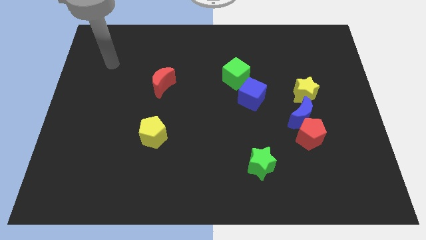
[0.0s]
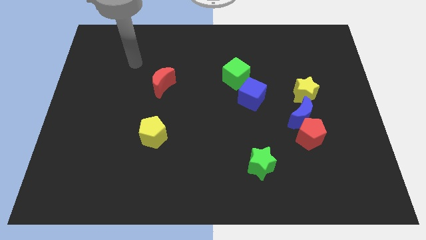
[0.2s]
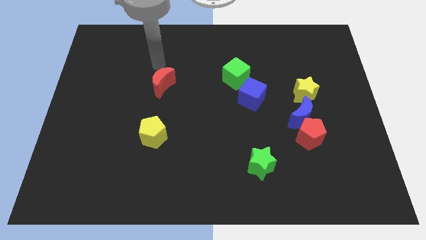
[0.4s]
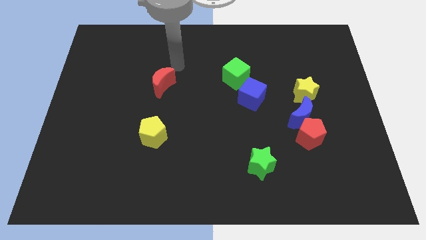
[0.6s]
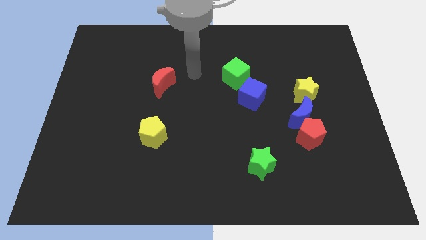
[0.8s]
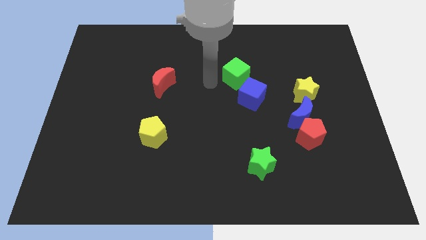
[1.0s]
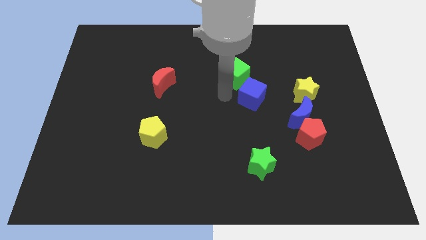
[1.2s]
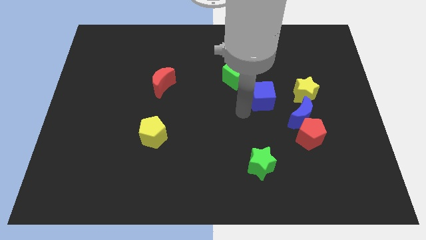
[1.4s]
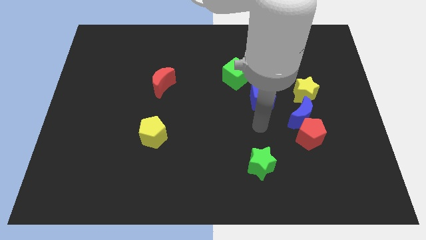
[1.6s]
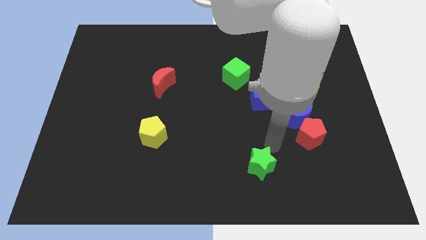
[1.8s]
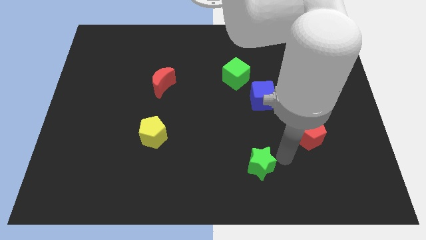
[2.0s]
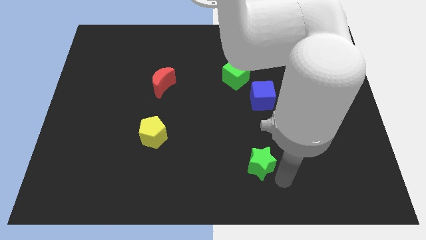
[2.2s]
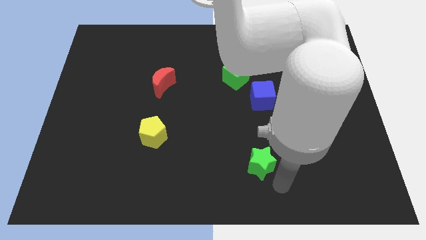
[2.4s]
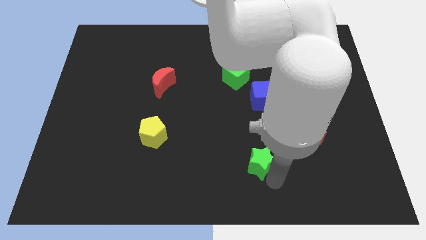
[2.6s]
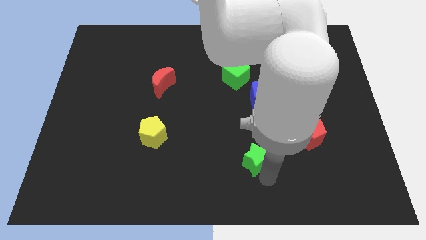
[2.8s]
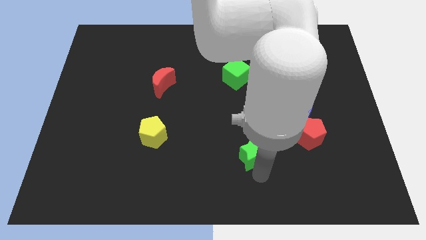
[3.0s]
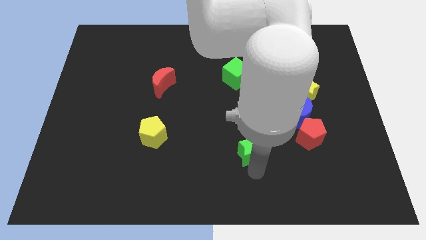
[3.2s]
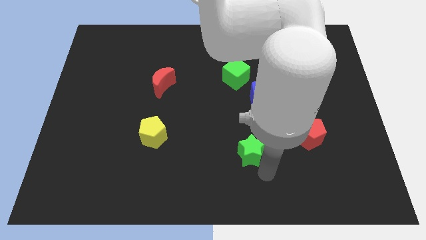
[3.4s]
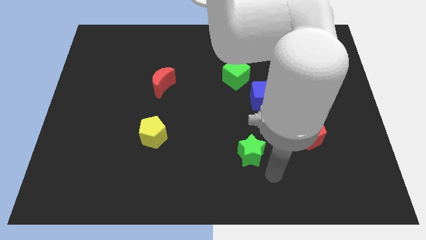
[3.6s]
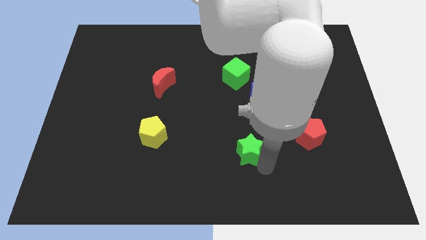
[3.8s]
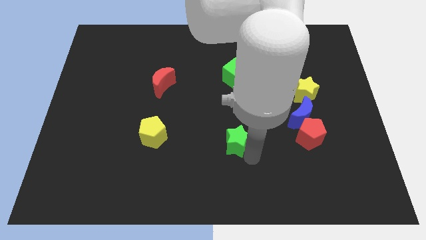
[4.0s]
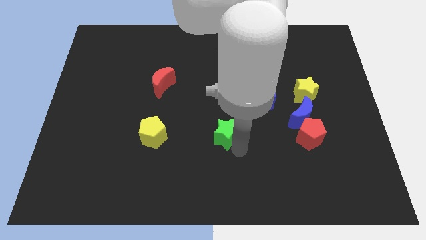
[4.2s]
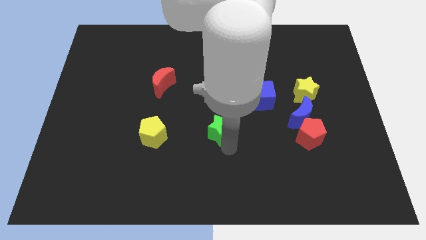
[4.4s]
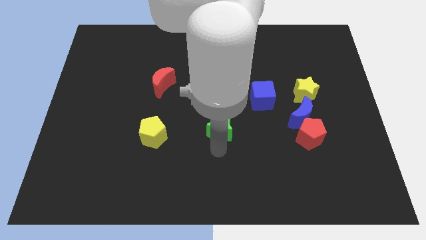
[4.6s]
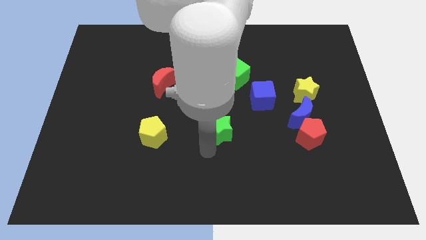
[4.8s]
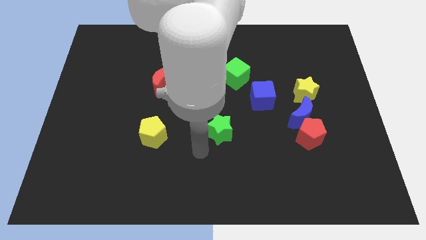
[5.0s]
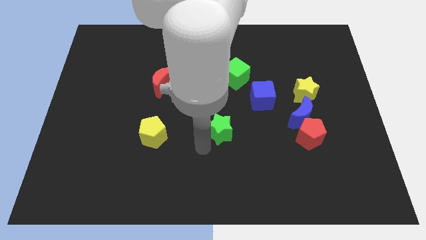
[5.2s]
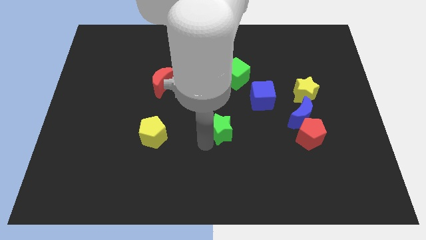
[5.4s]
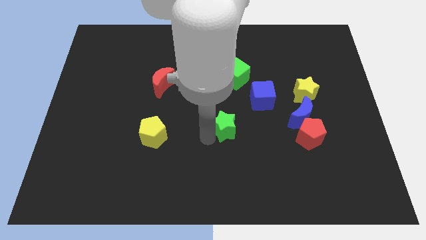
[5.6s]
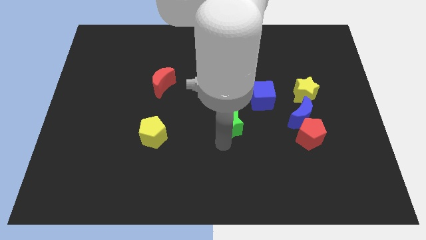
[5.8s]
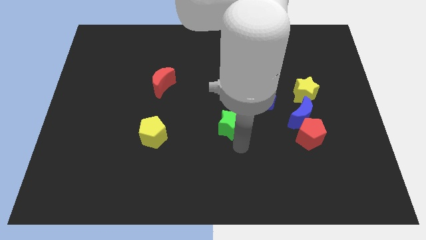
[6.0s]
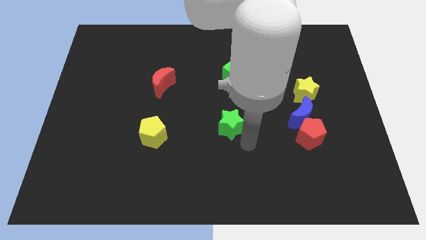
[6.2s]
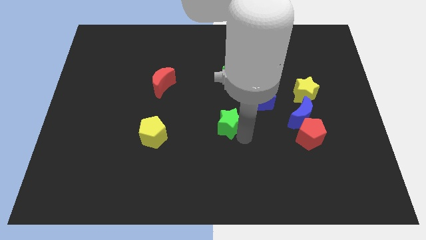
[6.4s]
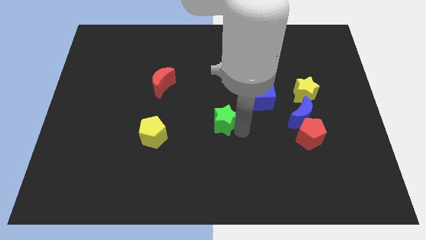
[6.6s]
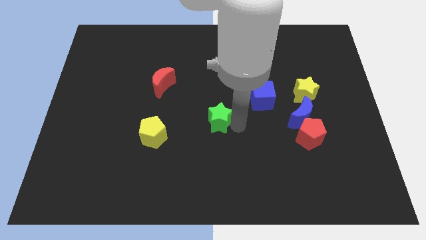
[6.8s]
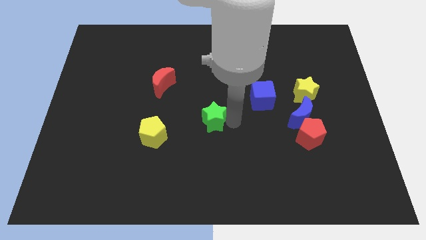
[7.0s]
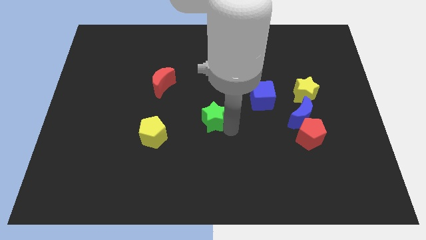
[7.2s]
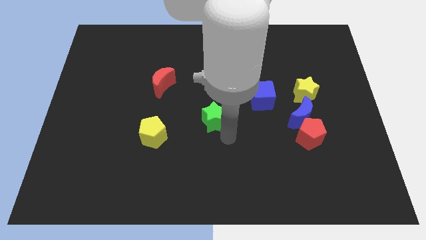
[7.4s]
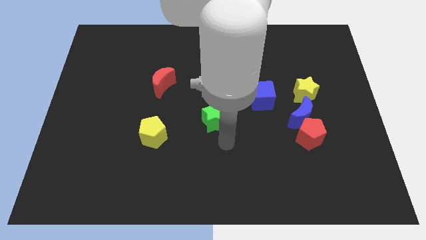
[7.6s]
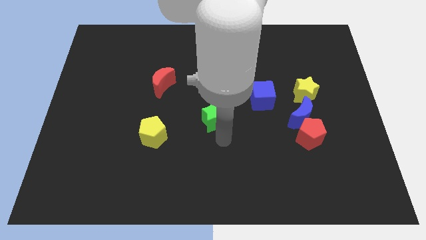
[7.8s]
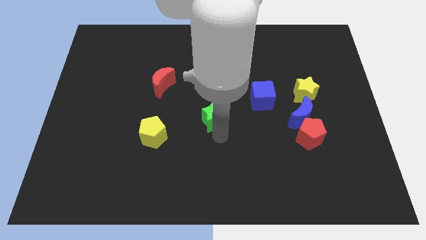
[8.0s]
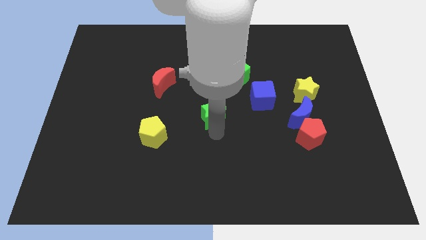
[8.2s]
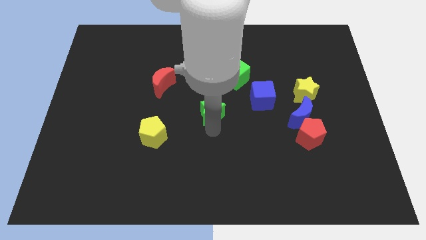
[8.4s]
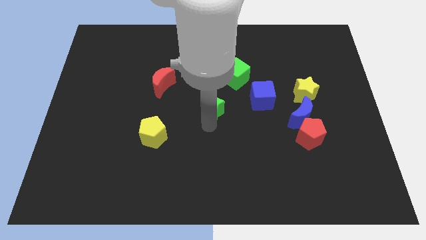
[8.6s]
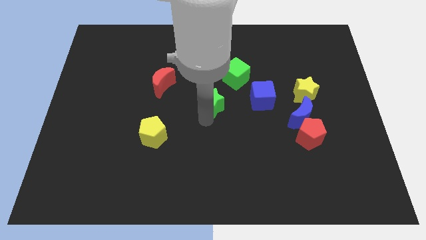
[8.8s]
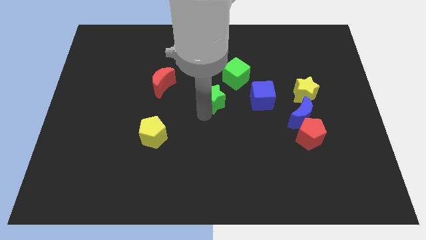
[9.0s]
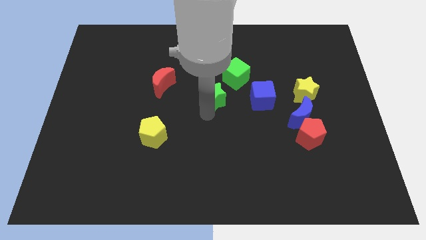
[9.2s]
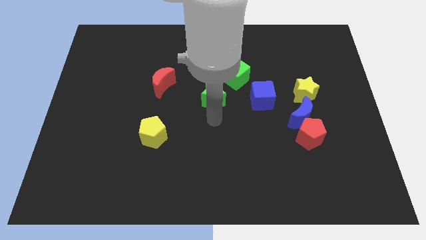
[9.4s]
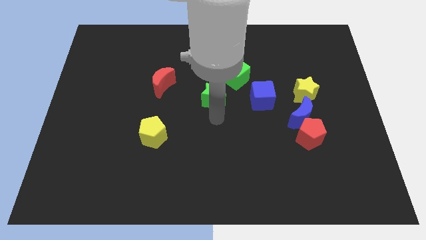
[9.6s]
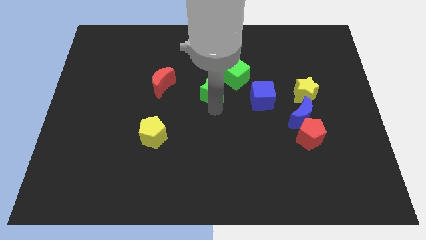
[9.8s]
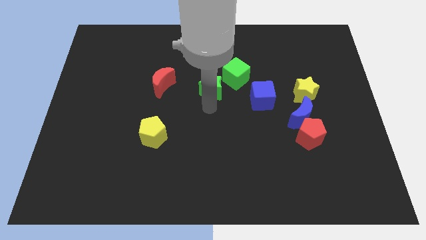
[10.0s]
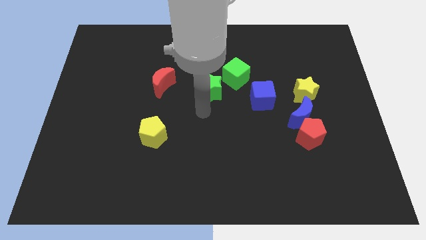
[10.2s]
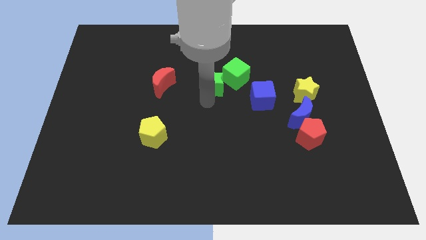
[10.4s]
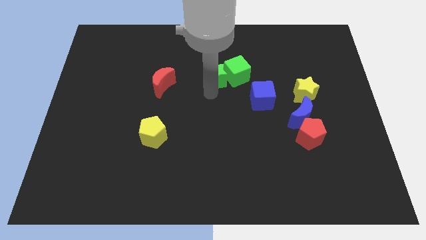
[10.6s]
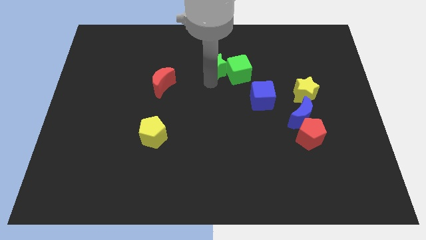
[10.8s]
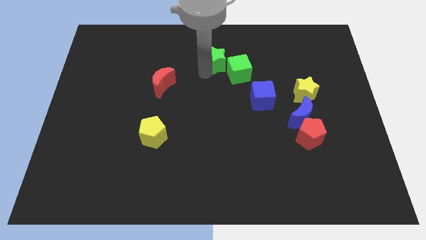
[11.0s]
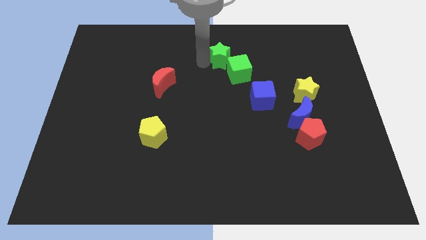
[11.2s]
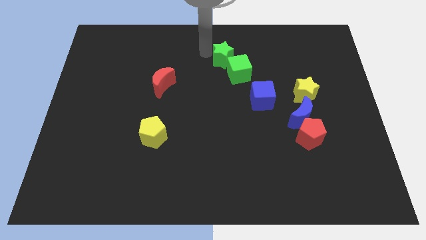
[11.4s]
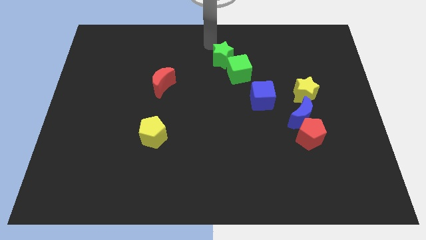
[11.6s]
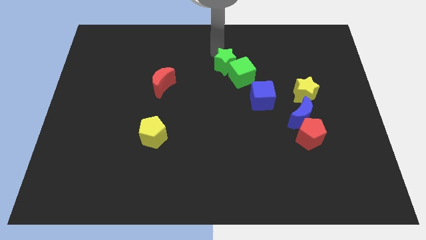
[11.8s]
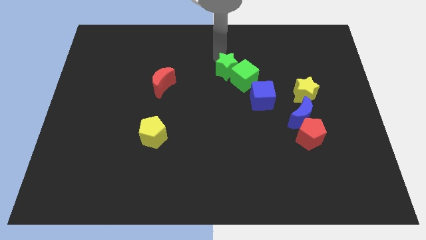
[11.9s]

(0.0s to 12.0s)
slide the green star diagonally up and to the left of the blue cube

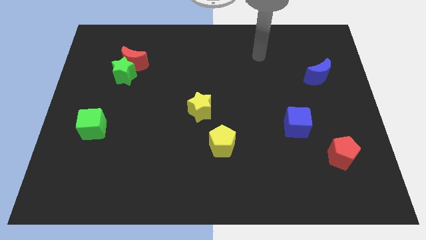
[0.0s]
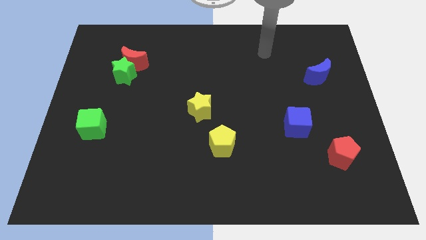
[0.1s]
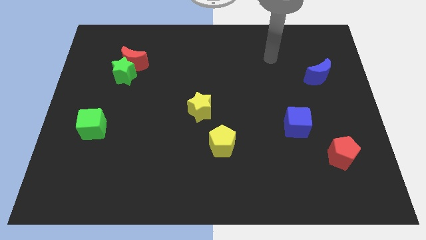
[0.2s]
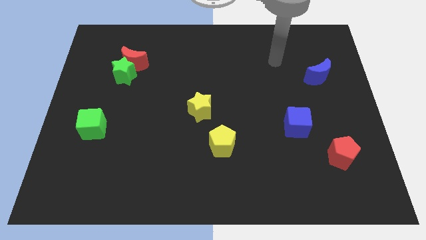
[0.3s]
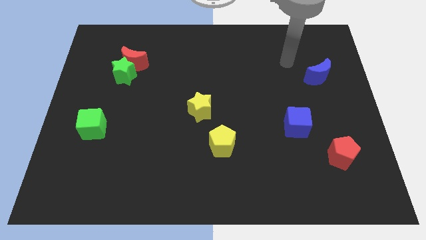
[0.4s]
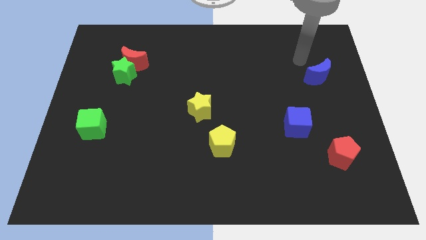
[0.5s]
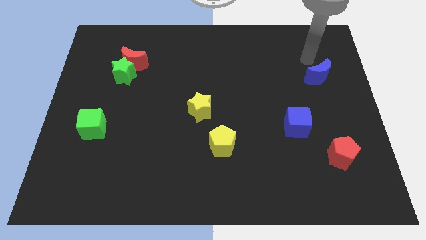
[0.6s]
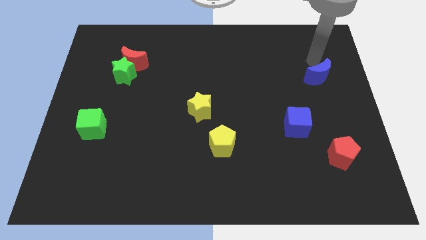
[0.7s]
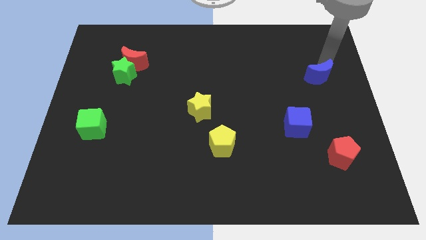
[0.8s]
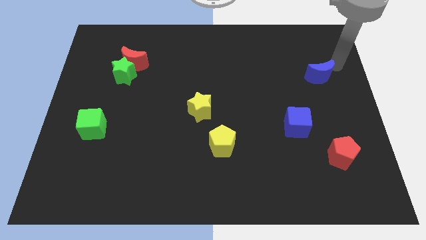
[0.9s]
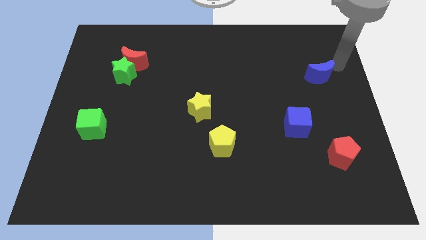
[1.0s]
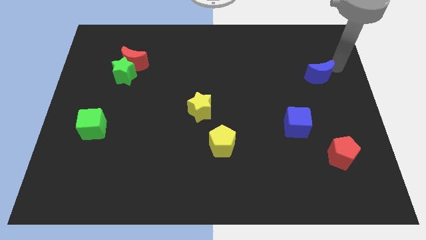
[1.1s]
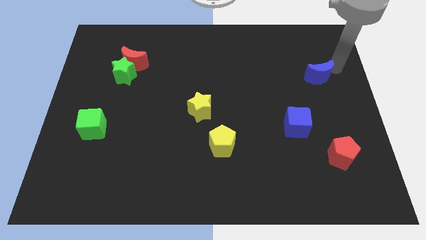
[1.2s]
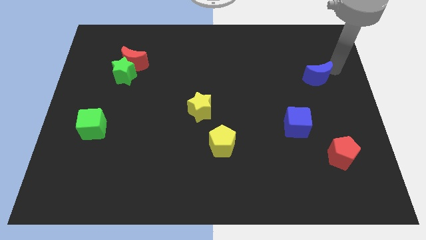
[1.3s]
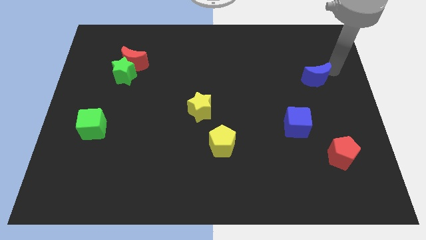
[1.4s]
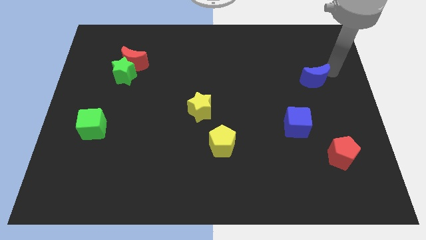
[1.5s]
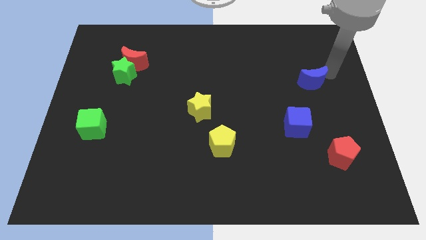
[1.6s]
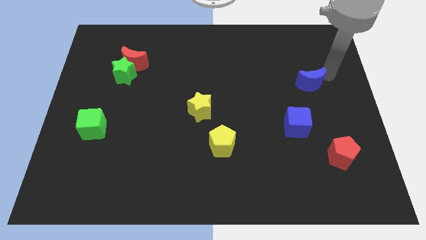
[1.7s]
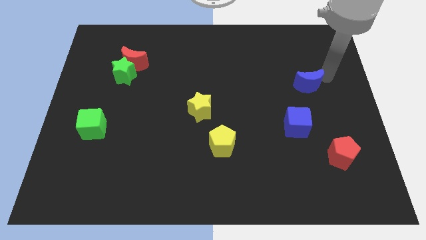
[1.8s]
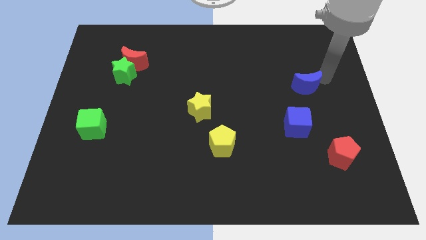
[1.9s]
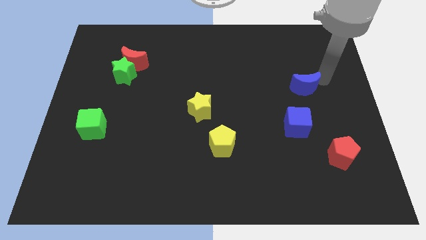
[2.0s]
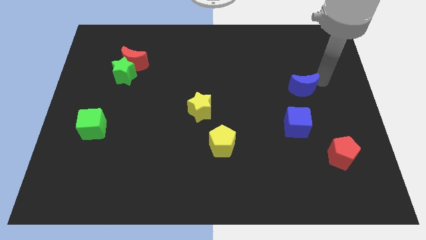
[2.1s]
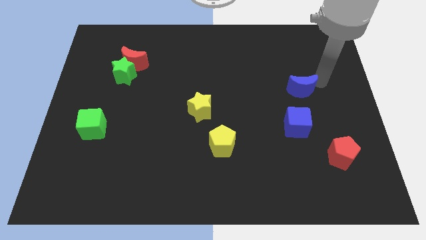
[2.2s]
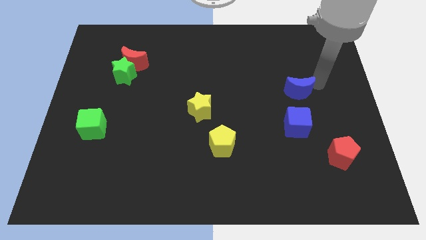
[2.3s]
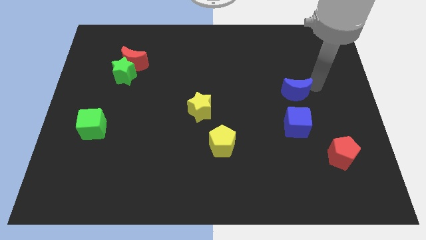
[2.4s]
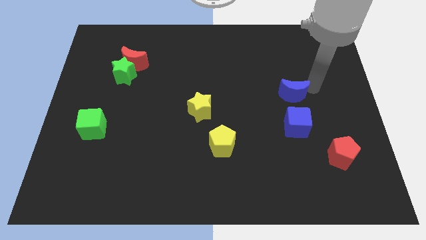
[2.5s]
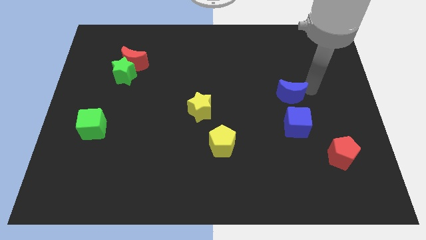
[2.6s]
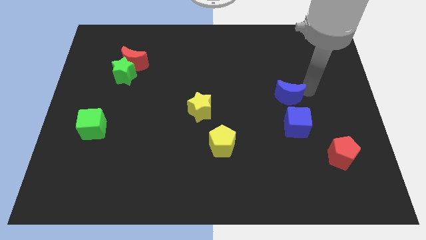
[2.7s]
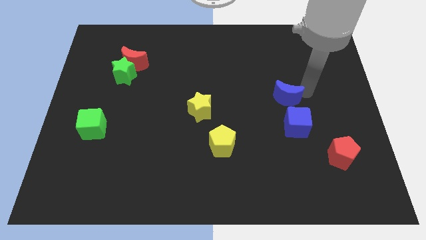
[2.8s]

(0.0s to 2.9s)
put the blue moon to the top left of the blue cube
